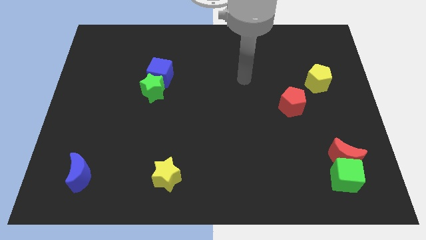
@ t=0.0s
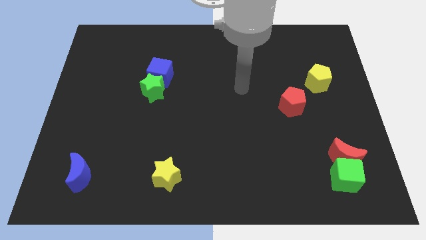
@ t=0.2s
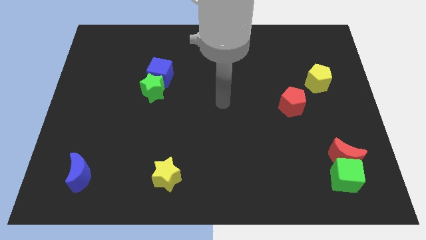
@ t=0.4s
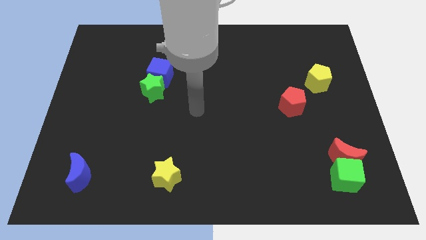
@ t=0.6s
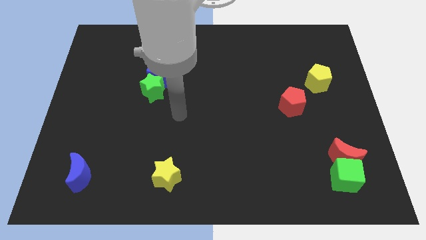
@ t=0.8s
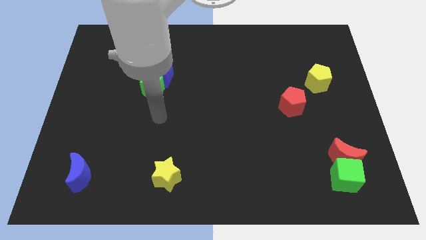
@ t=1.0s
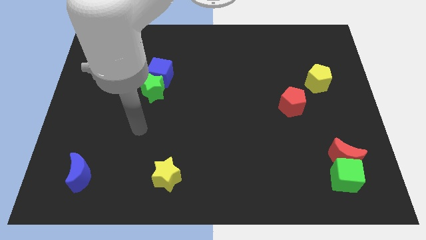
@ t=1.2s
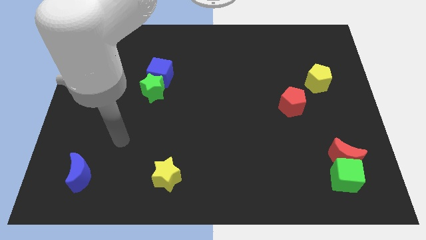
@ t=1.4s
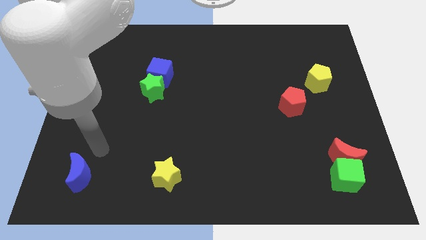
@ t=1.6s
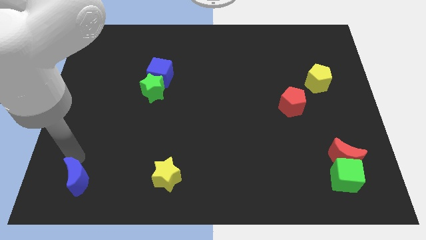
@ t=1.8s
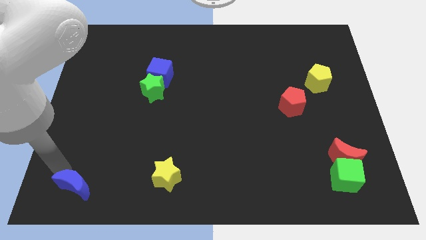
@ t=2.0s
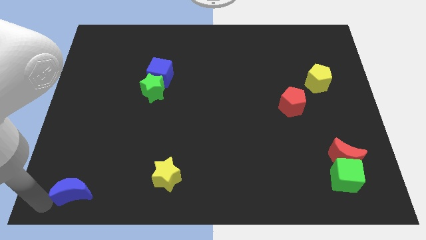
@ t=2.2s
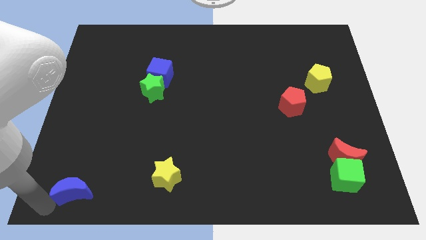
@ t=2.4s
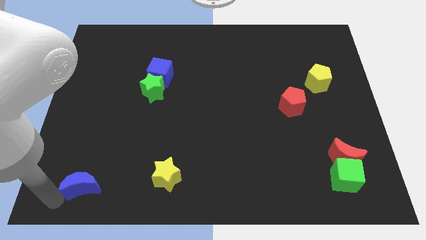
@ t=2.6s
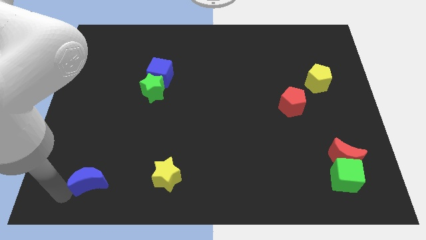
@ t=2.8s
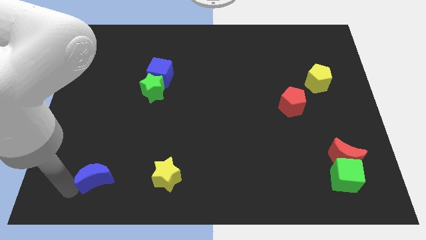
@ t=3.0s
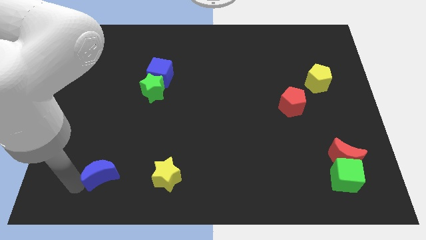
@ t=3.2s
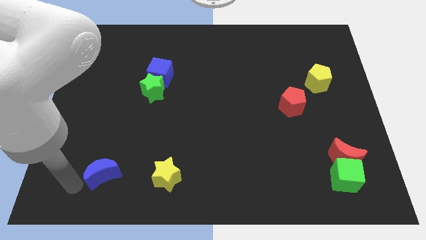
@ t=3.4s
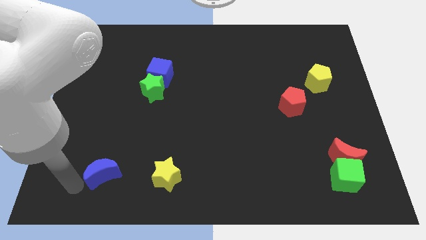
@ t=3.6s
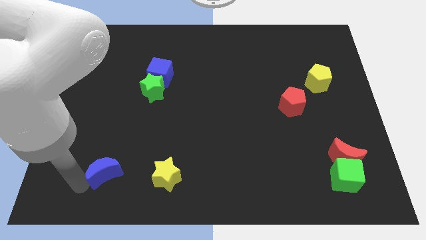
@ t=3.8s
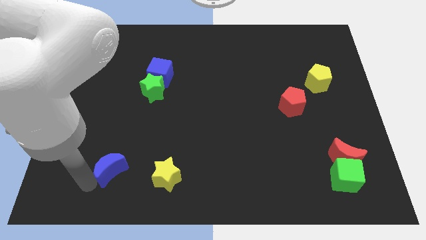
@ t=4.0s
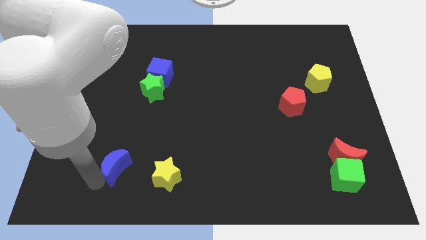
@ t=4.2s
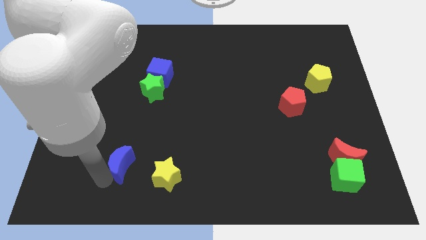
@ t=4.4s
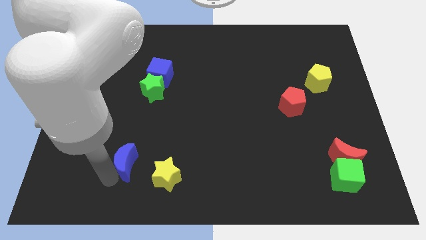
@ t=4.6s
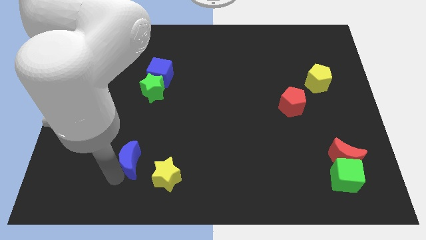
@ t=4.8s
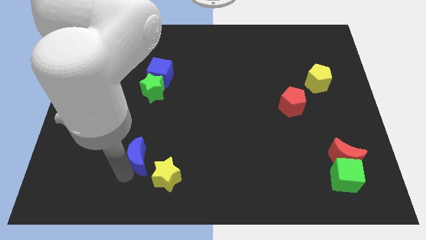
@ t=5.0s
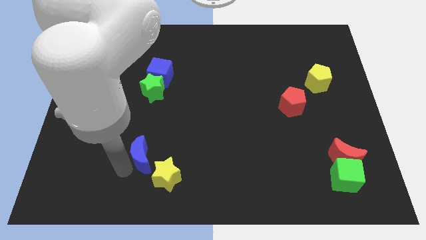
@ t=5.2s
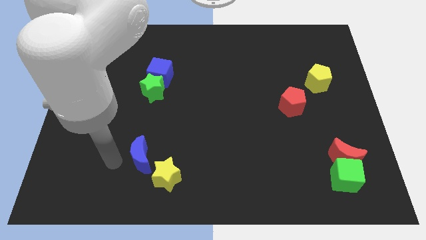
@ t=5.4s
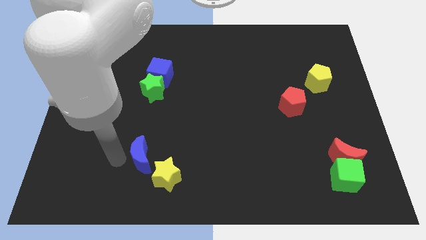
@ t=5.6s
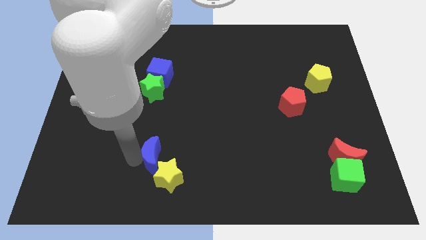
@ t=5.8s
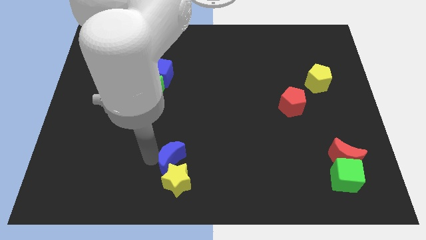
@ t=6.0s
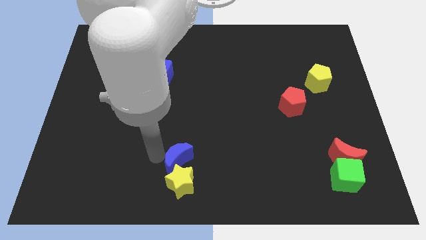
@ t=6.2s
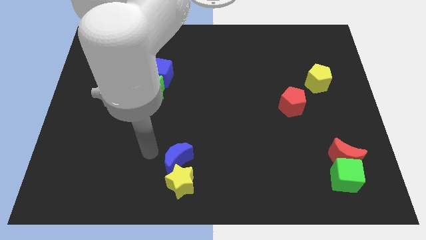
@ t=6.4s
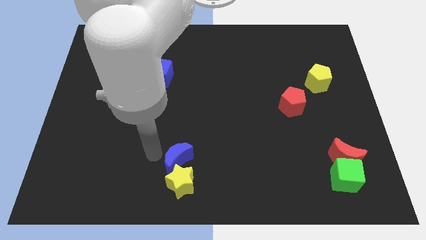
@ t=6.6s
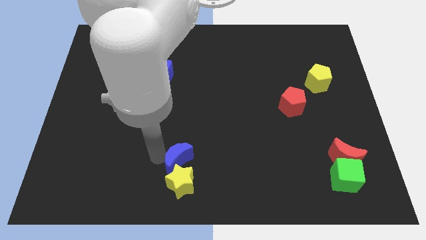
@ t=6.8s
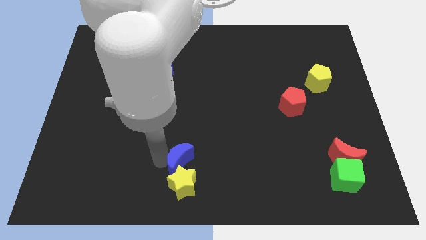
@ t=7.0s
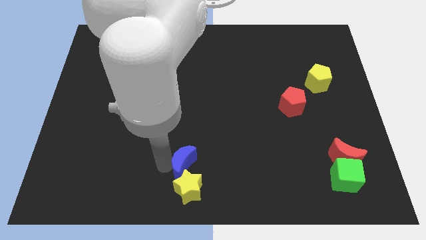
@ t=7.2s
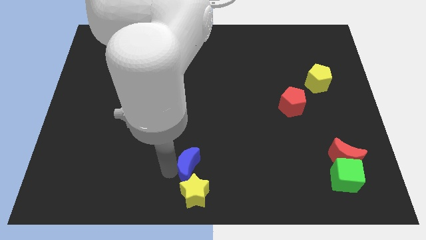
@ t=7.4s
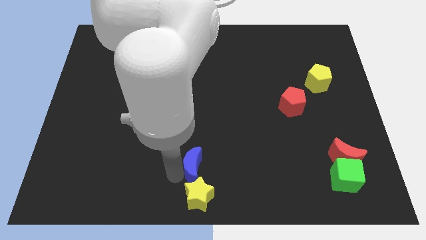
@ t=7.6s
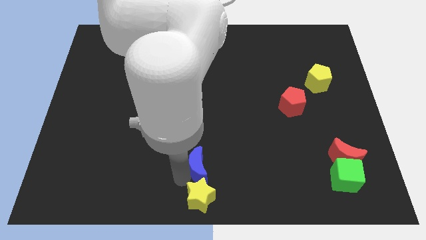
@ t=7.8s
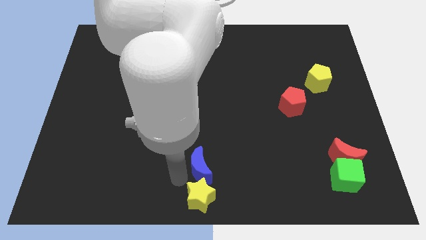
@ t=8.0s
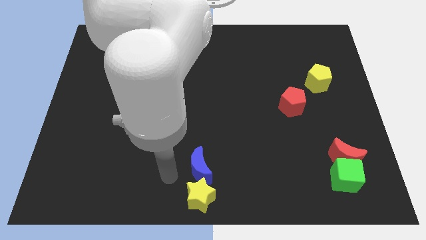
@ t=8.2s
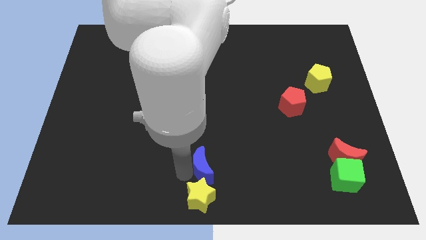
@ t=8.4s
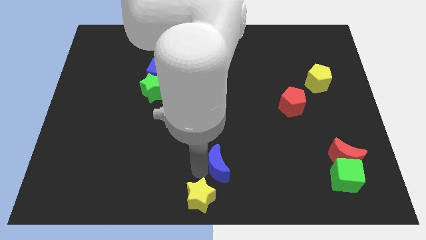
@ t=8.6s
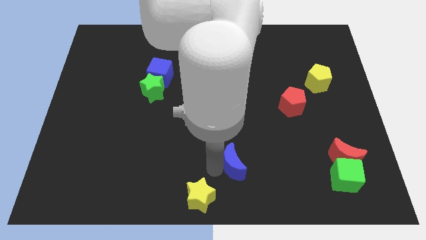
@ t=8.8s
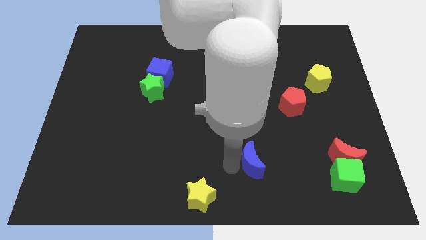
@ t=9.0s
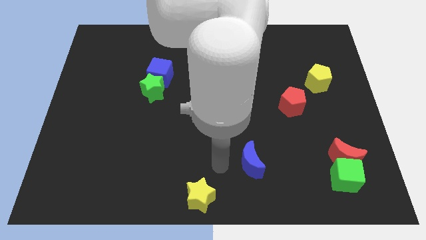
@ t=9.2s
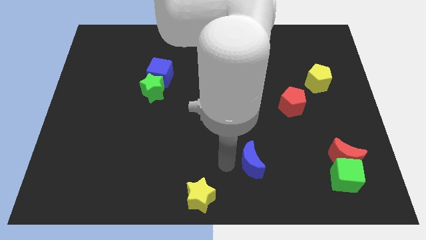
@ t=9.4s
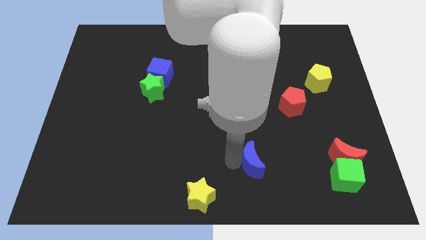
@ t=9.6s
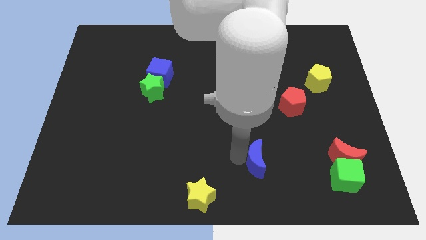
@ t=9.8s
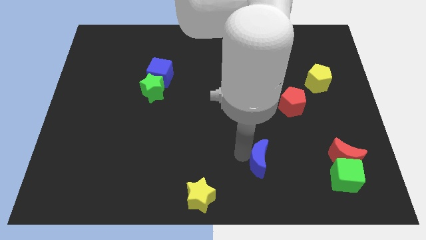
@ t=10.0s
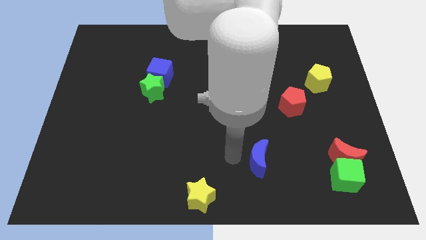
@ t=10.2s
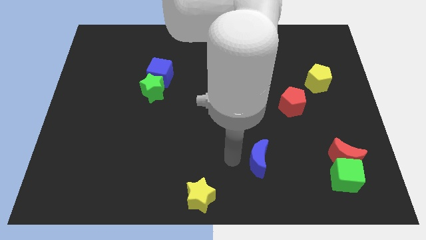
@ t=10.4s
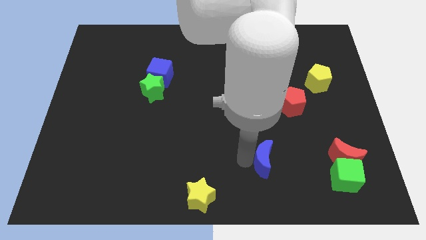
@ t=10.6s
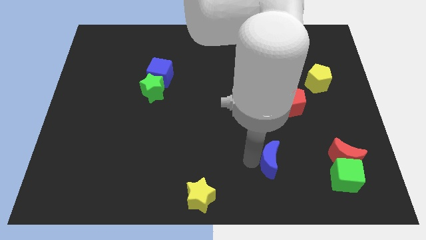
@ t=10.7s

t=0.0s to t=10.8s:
slide the blue moon left of the red moon

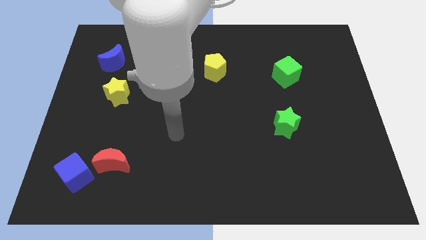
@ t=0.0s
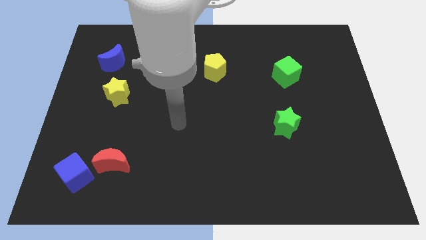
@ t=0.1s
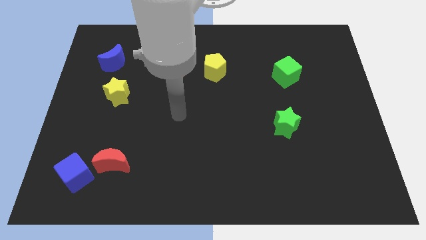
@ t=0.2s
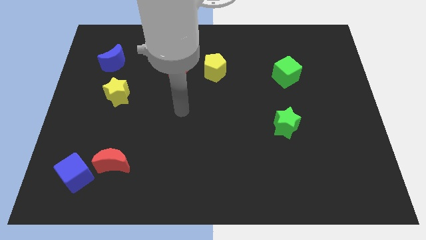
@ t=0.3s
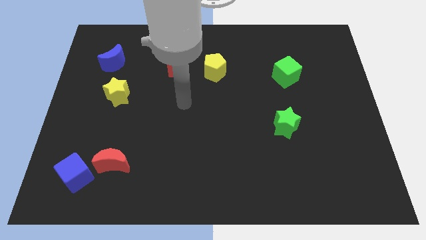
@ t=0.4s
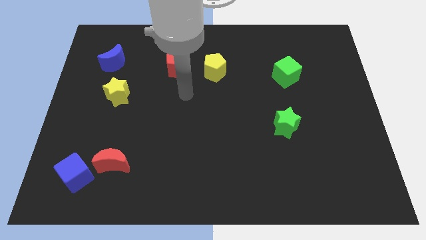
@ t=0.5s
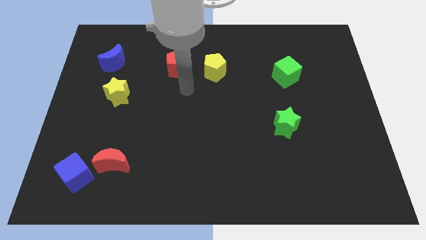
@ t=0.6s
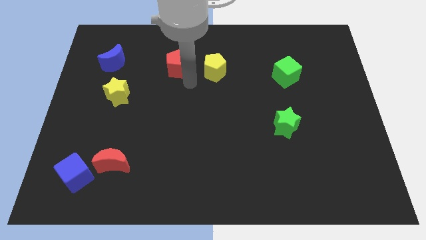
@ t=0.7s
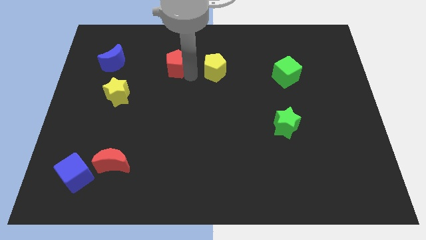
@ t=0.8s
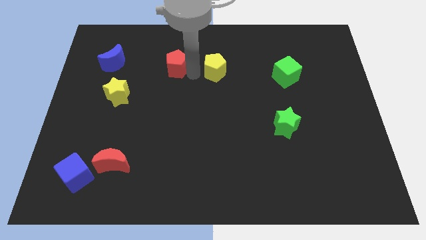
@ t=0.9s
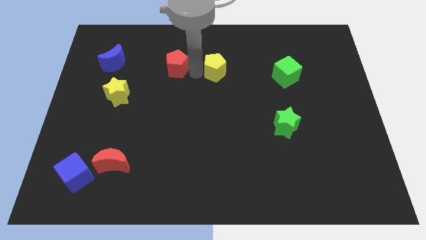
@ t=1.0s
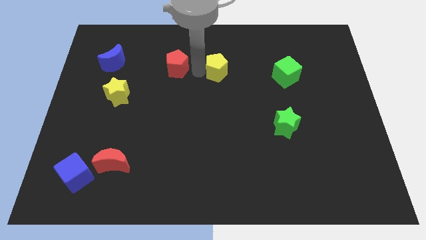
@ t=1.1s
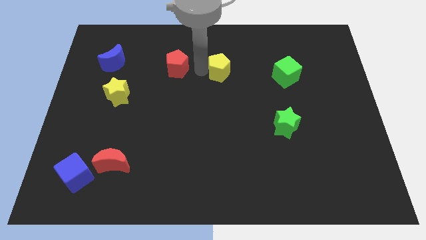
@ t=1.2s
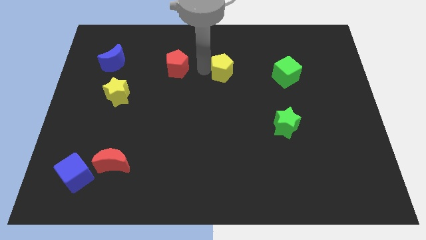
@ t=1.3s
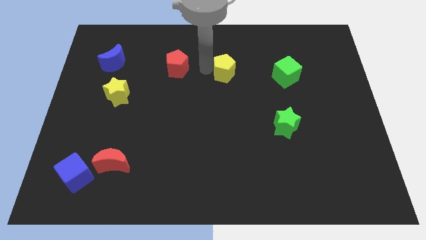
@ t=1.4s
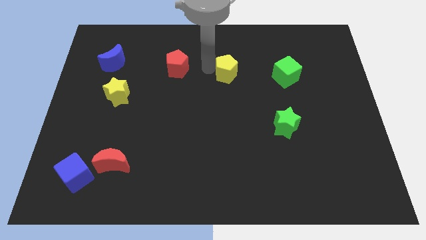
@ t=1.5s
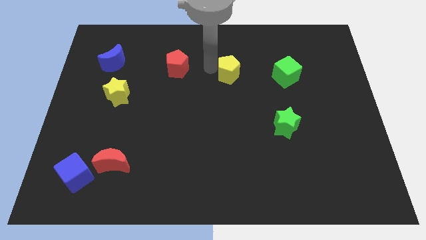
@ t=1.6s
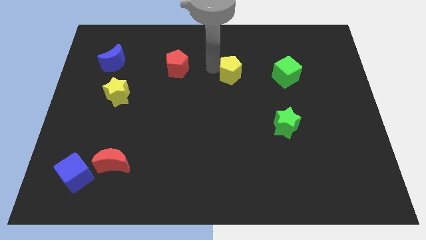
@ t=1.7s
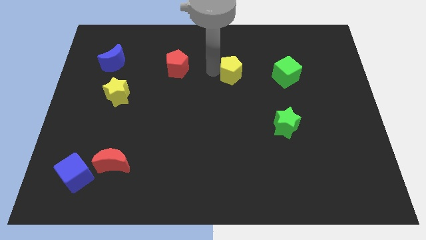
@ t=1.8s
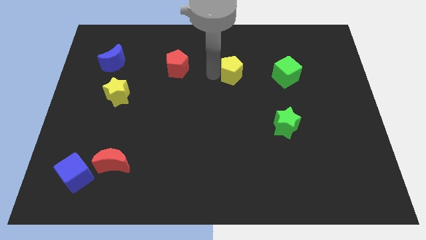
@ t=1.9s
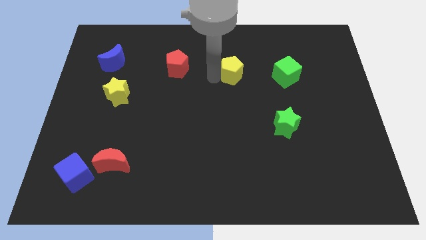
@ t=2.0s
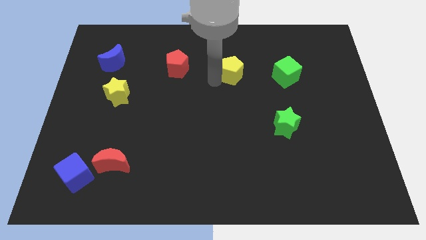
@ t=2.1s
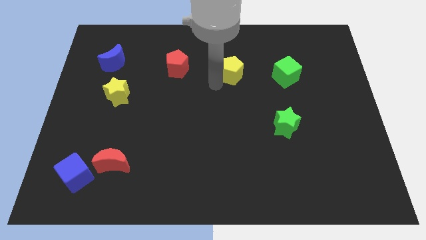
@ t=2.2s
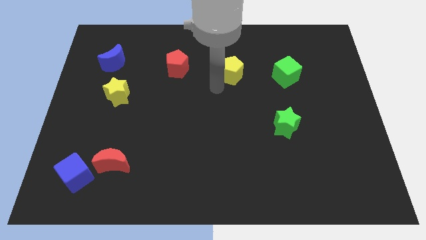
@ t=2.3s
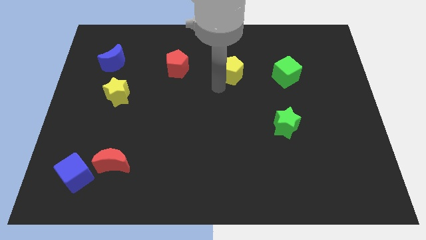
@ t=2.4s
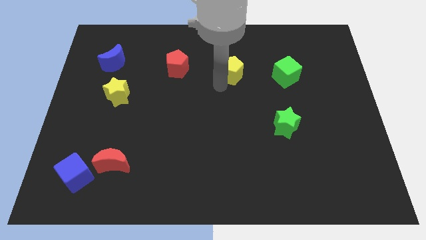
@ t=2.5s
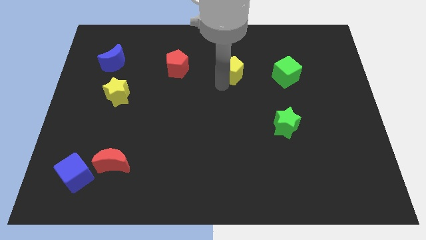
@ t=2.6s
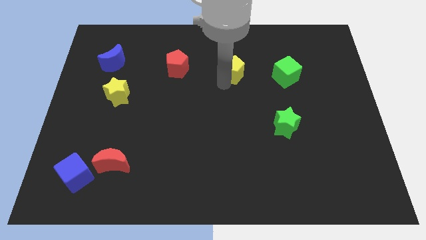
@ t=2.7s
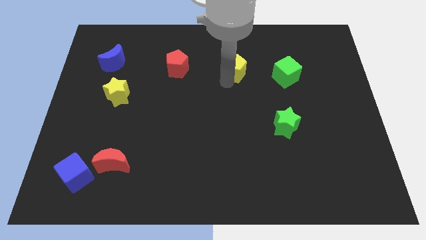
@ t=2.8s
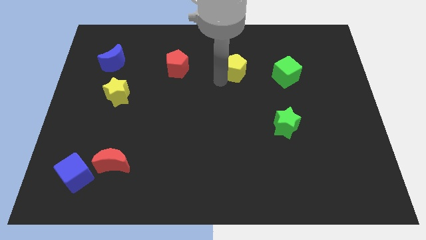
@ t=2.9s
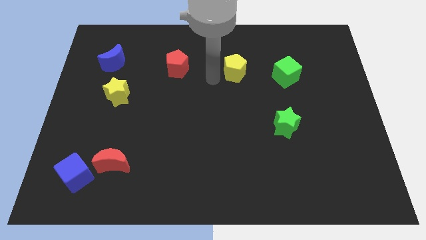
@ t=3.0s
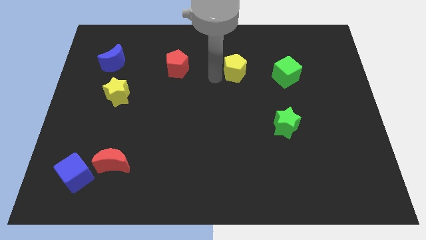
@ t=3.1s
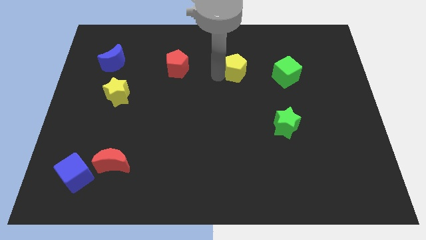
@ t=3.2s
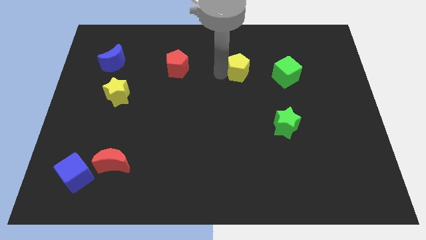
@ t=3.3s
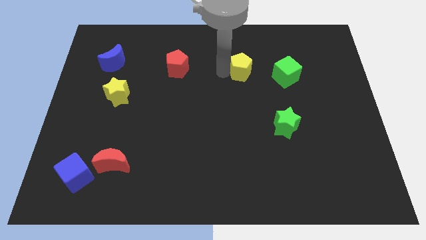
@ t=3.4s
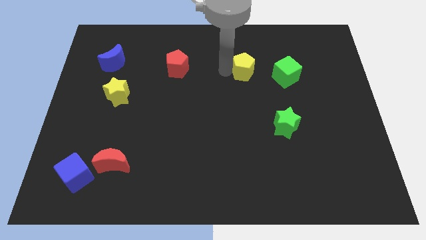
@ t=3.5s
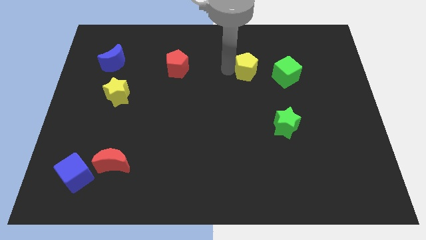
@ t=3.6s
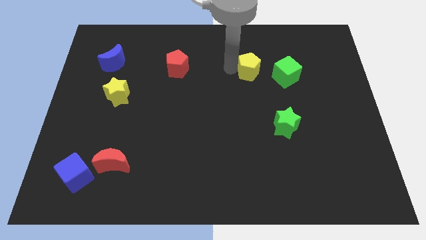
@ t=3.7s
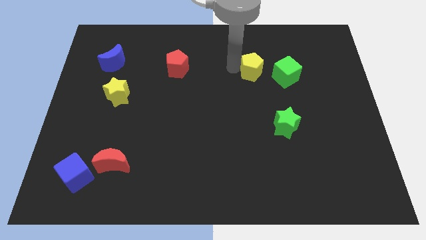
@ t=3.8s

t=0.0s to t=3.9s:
put the yellow pentagon diagonally up and to the left of the green cube
